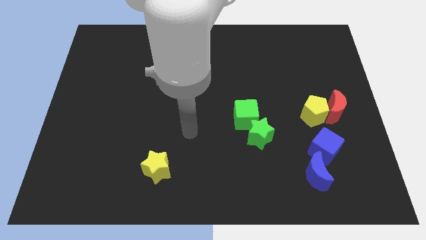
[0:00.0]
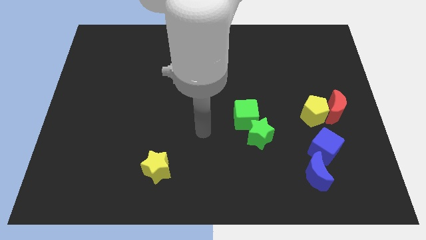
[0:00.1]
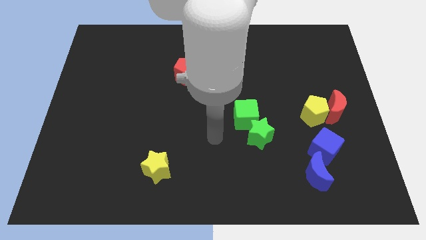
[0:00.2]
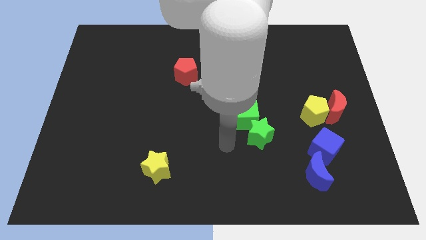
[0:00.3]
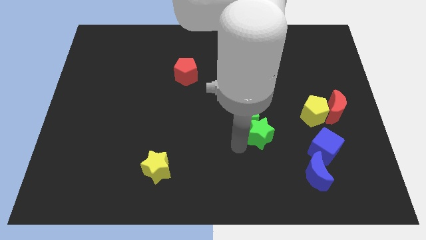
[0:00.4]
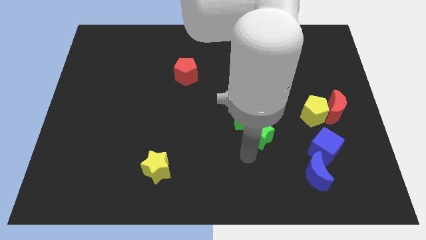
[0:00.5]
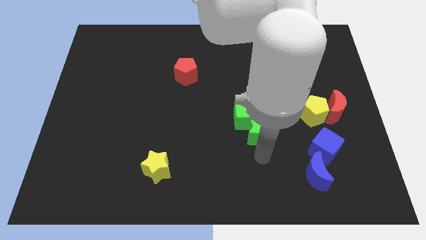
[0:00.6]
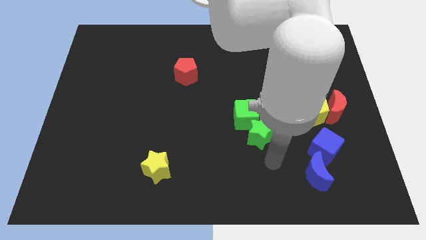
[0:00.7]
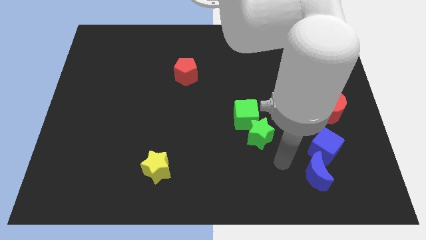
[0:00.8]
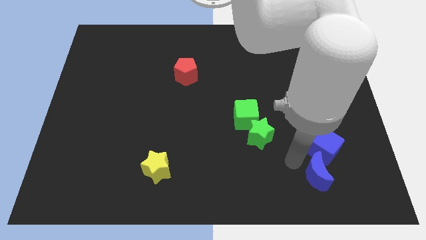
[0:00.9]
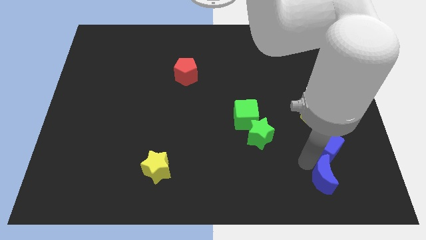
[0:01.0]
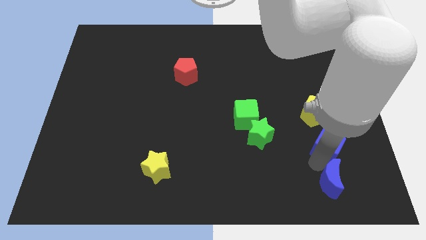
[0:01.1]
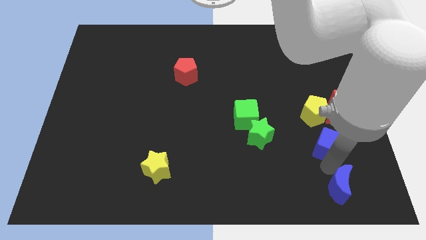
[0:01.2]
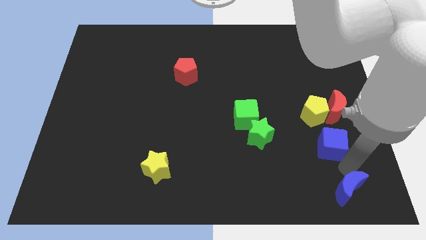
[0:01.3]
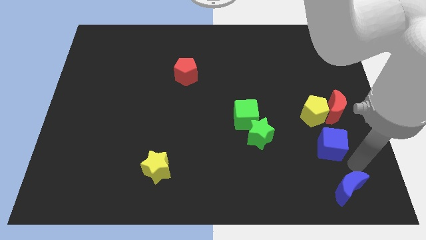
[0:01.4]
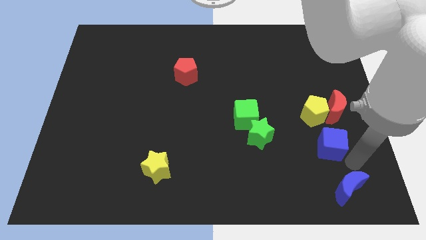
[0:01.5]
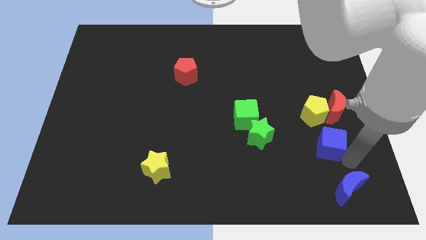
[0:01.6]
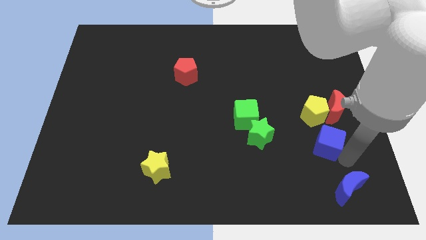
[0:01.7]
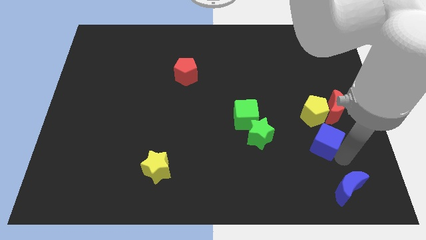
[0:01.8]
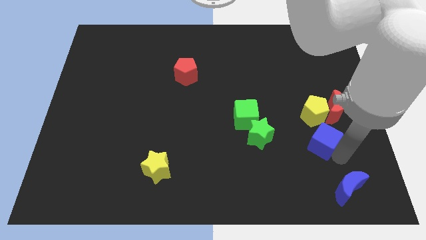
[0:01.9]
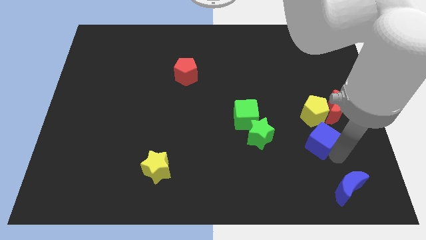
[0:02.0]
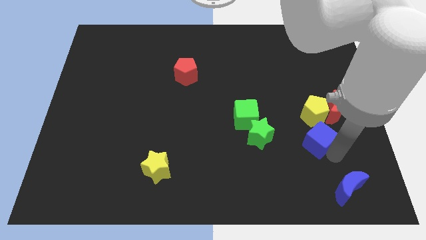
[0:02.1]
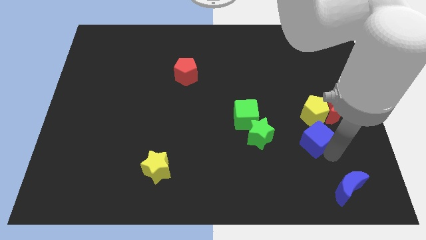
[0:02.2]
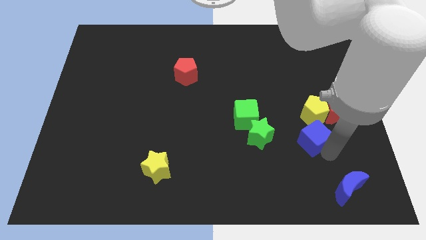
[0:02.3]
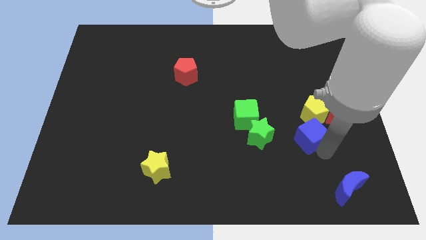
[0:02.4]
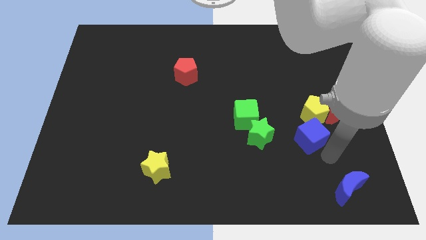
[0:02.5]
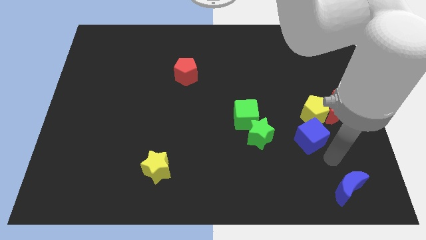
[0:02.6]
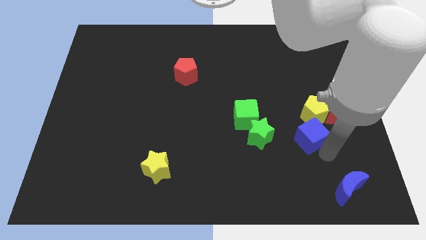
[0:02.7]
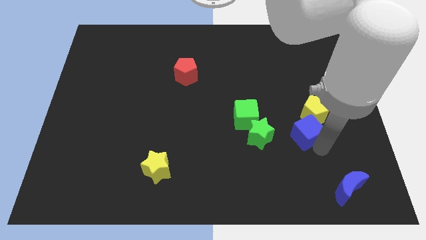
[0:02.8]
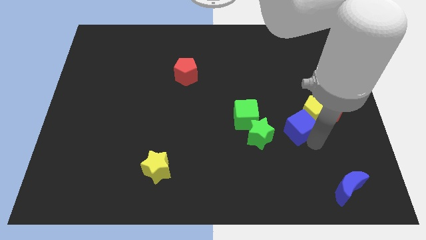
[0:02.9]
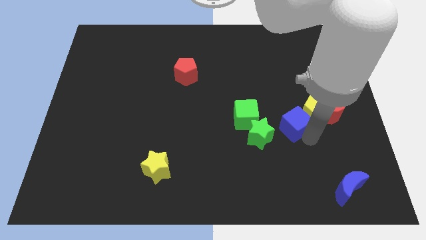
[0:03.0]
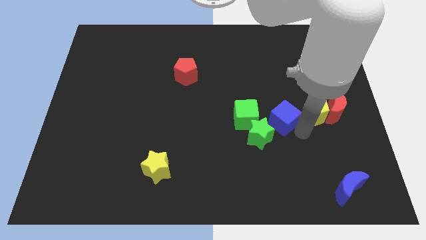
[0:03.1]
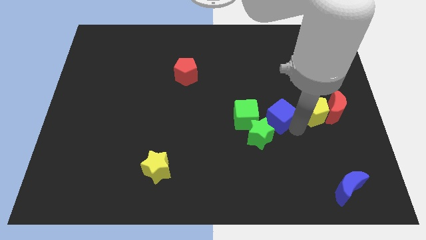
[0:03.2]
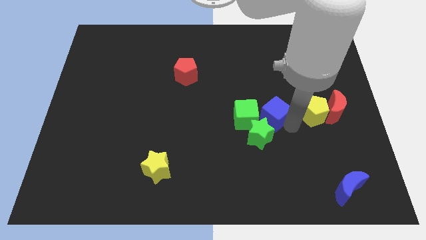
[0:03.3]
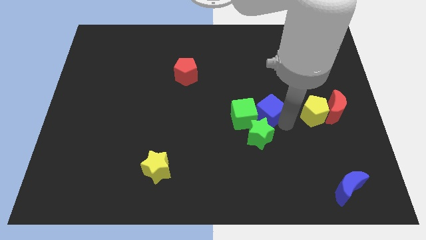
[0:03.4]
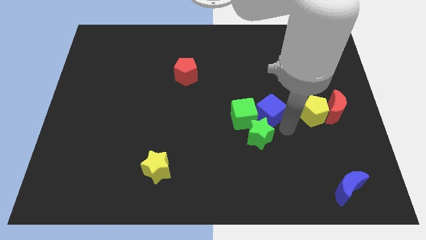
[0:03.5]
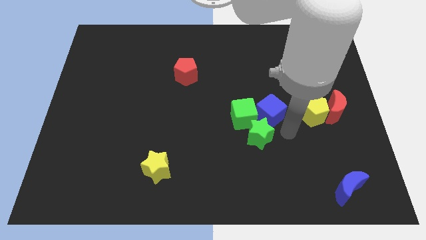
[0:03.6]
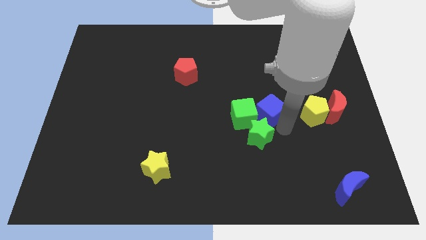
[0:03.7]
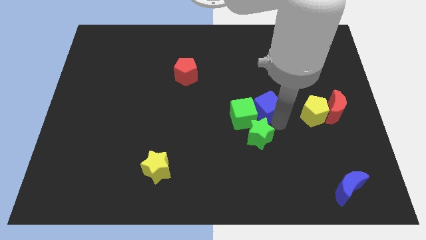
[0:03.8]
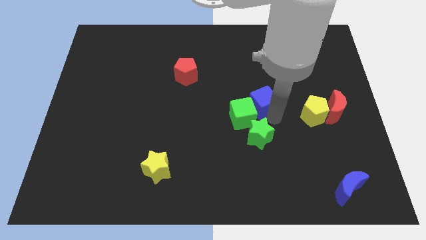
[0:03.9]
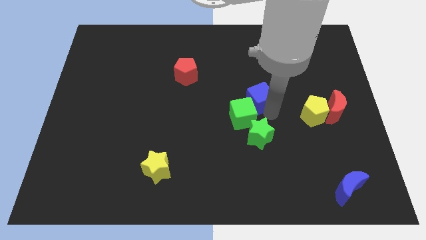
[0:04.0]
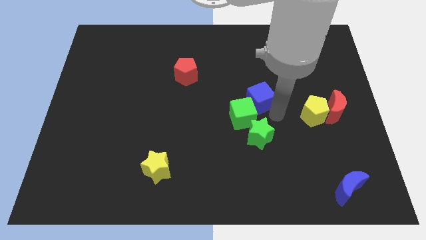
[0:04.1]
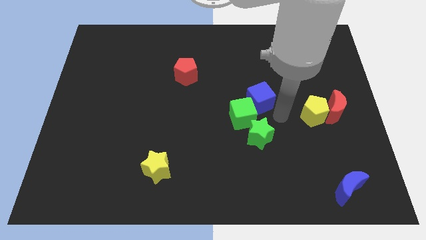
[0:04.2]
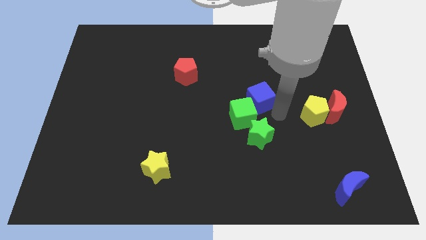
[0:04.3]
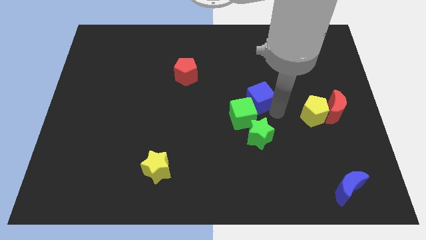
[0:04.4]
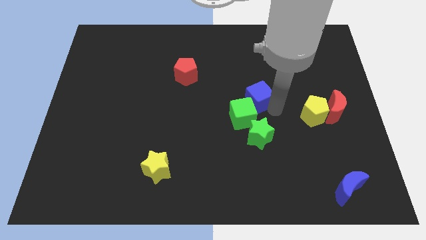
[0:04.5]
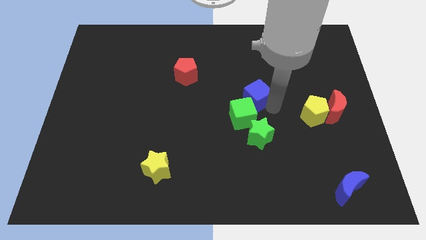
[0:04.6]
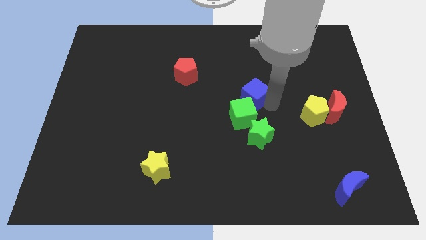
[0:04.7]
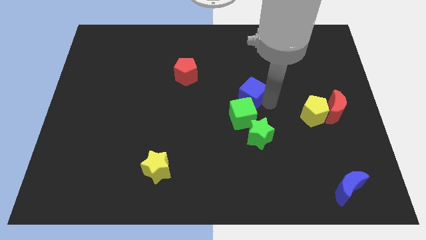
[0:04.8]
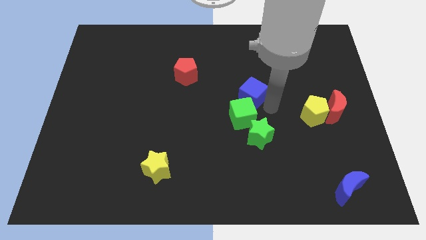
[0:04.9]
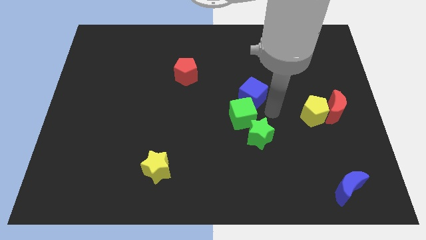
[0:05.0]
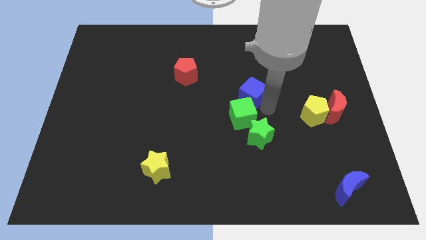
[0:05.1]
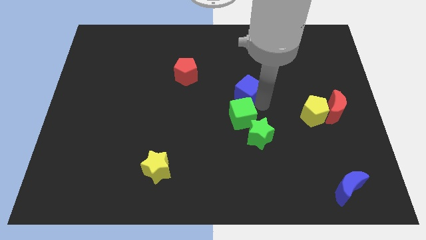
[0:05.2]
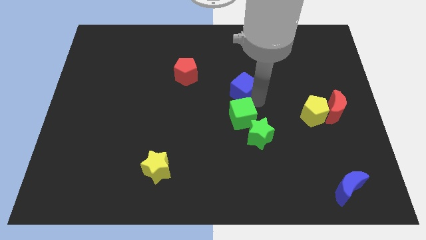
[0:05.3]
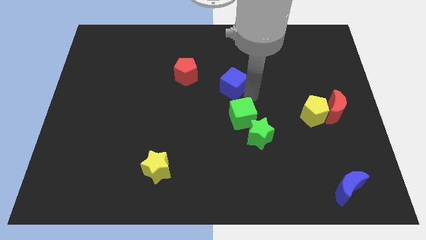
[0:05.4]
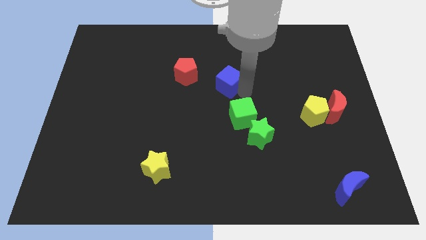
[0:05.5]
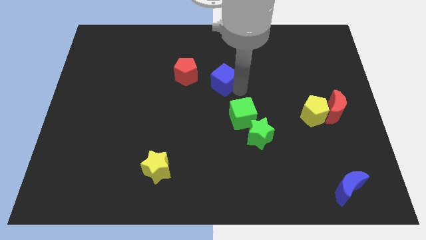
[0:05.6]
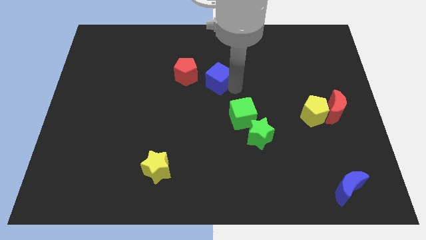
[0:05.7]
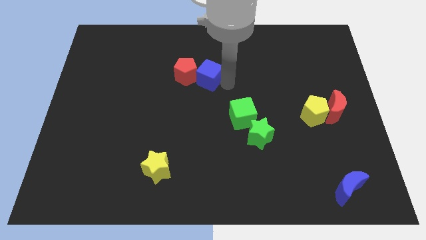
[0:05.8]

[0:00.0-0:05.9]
move the blue cube towards the red pentagon

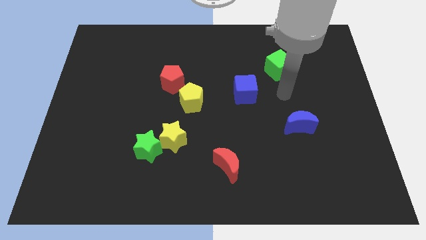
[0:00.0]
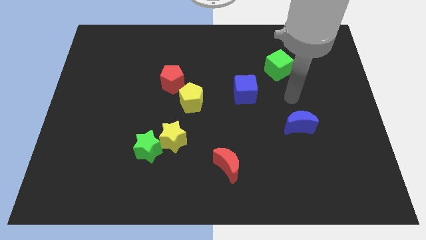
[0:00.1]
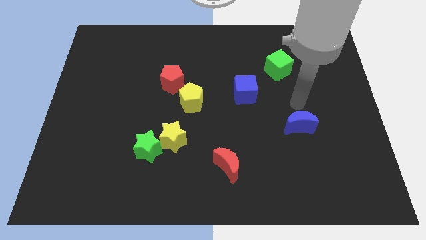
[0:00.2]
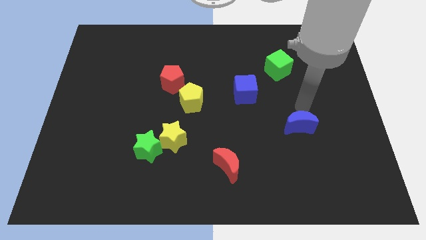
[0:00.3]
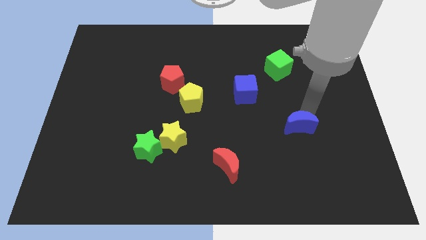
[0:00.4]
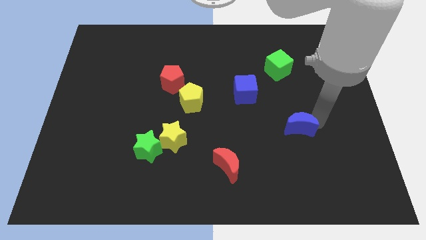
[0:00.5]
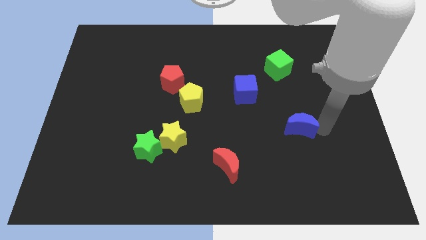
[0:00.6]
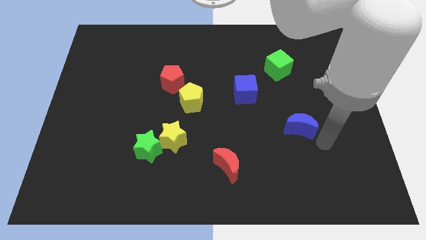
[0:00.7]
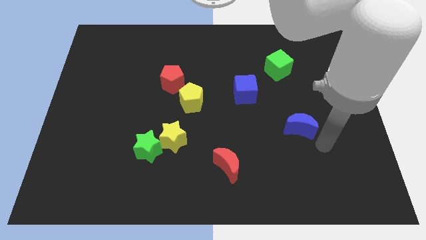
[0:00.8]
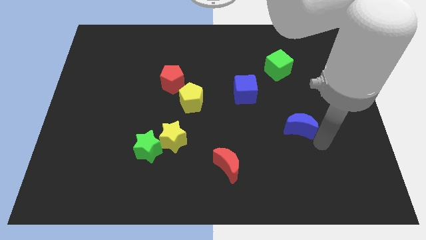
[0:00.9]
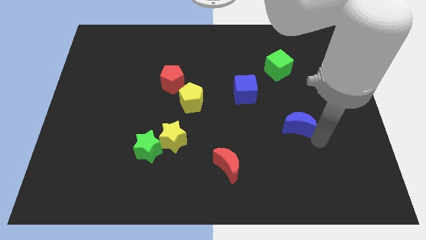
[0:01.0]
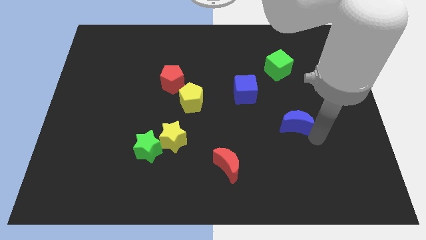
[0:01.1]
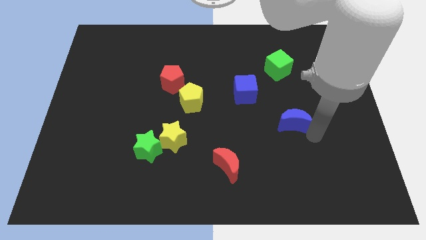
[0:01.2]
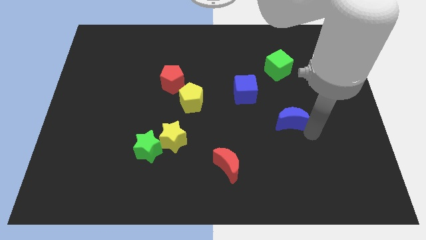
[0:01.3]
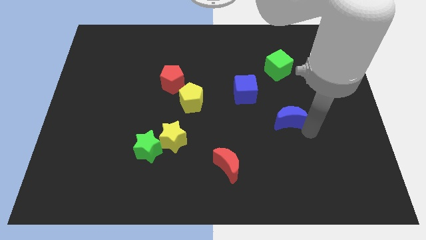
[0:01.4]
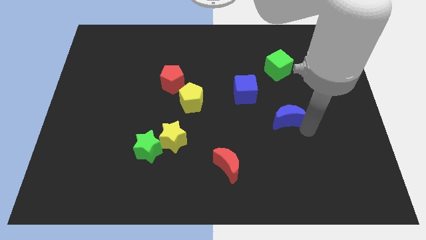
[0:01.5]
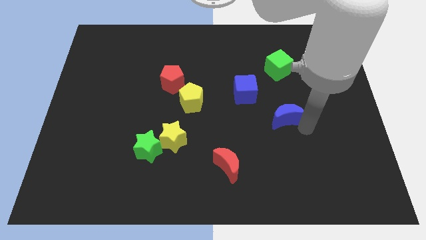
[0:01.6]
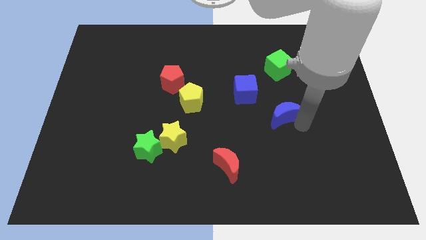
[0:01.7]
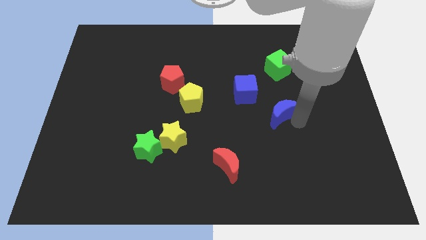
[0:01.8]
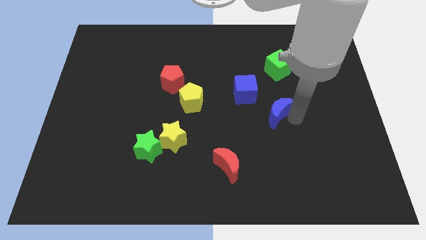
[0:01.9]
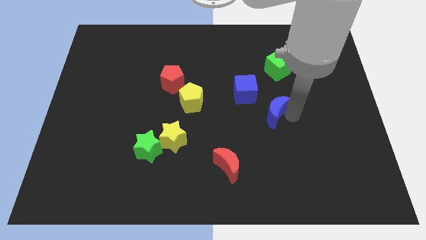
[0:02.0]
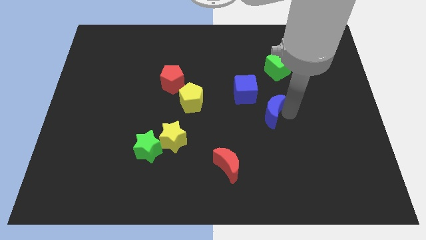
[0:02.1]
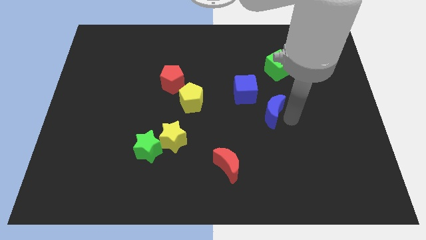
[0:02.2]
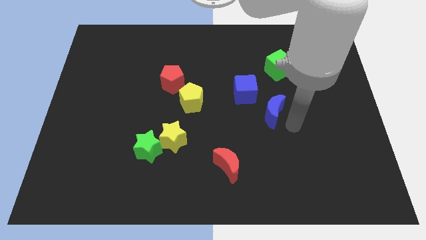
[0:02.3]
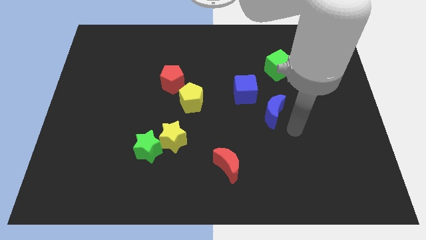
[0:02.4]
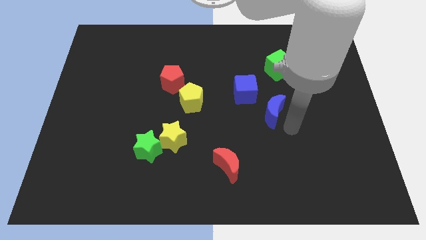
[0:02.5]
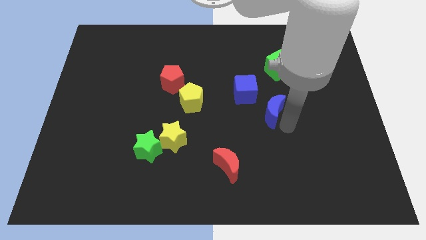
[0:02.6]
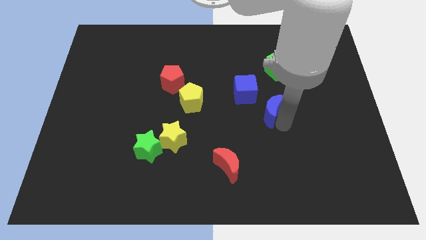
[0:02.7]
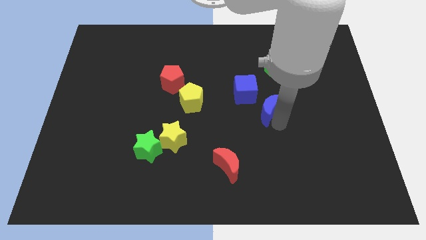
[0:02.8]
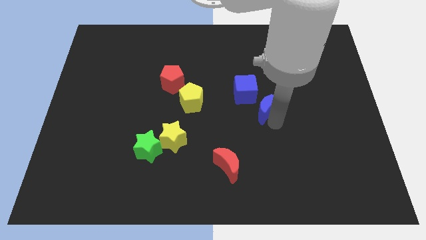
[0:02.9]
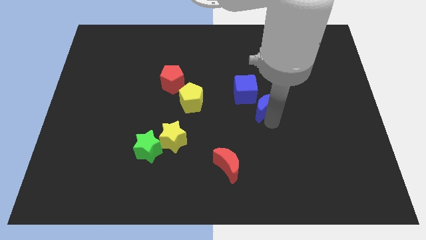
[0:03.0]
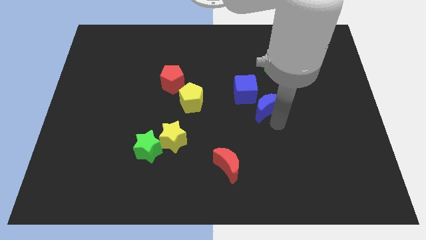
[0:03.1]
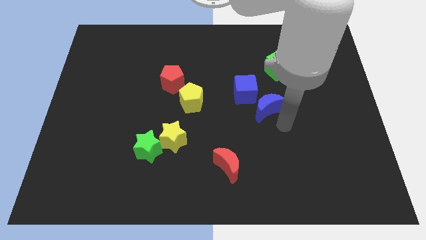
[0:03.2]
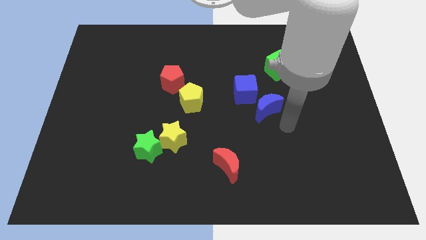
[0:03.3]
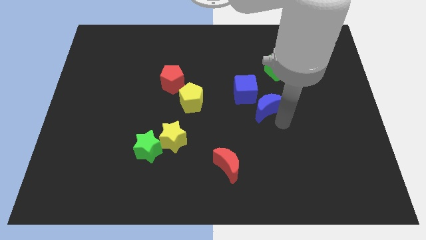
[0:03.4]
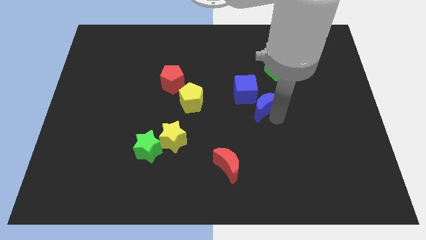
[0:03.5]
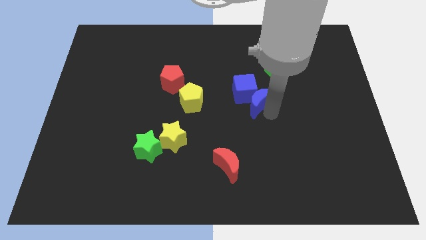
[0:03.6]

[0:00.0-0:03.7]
move the blue moon next to the blue cube
